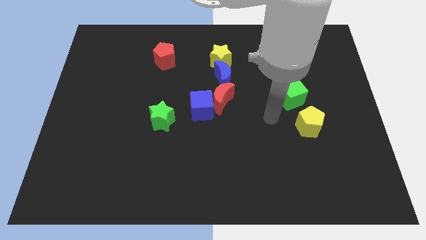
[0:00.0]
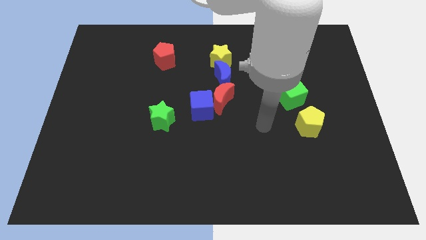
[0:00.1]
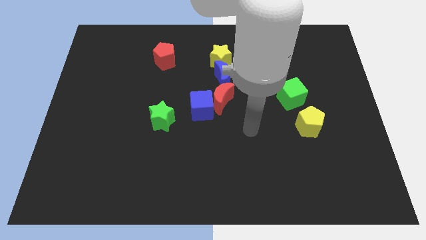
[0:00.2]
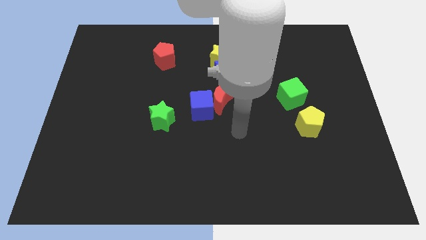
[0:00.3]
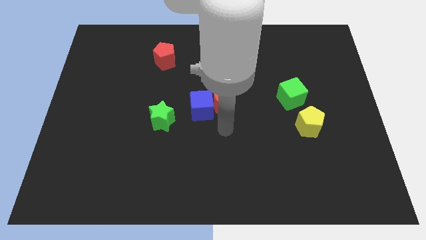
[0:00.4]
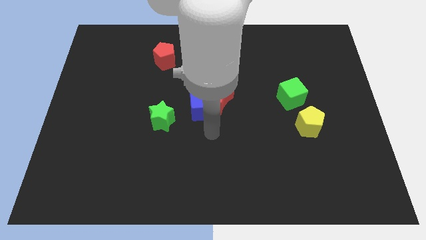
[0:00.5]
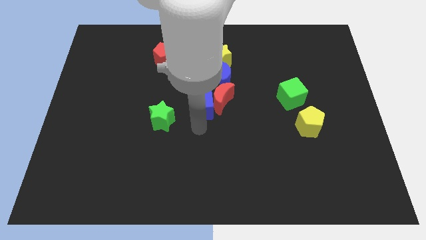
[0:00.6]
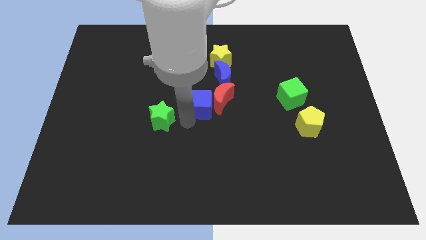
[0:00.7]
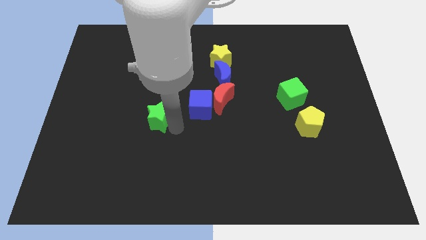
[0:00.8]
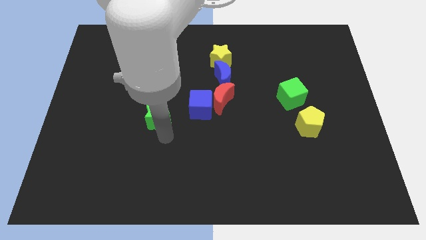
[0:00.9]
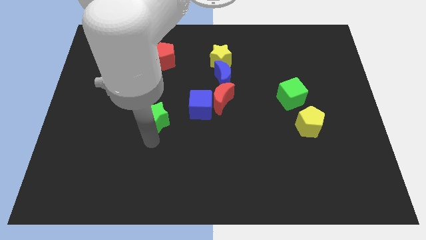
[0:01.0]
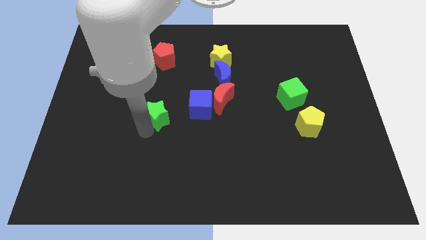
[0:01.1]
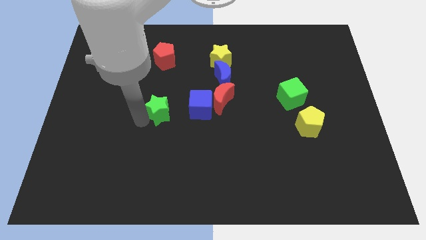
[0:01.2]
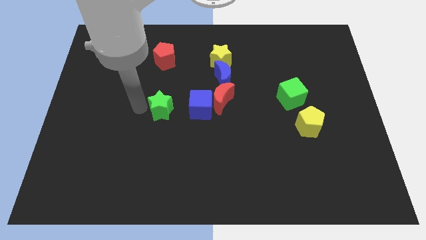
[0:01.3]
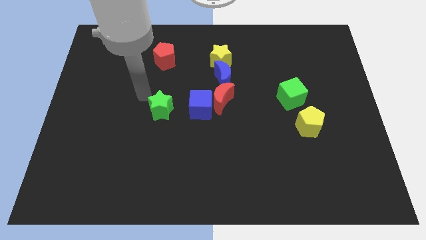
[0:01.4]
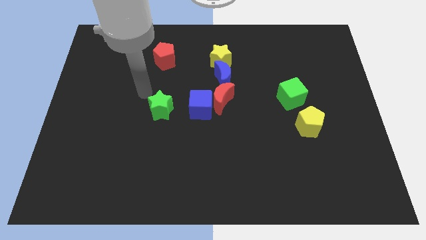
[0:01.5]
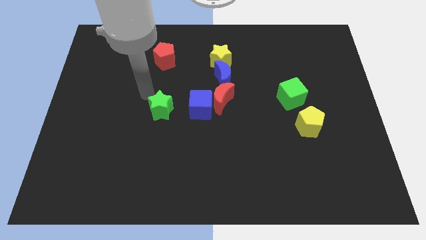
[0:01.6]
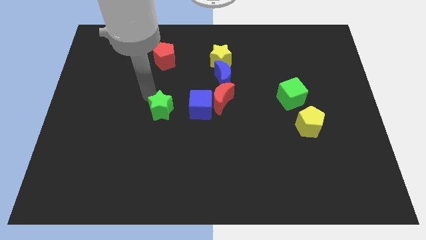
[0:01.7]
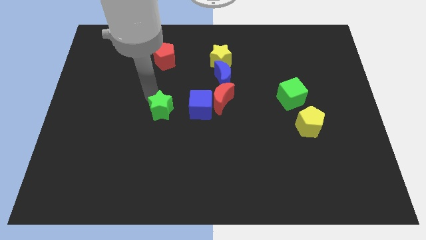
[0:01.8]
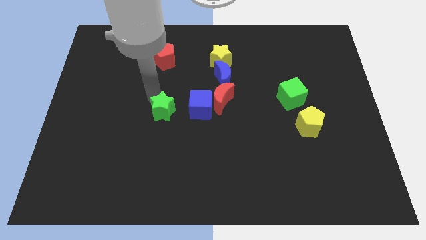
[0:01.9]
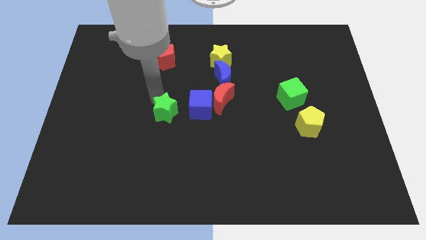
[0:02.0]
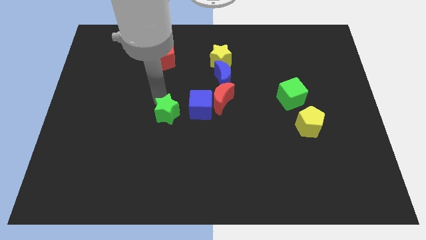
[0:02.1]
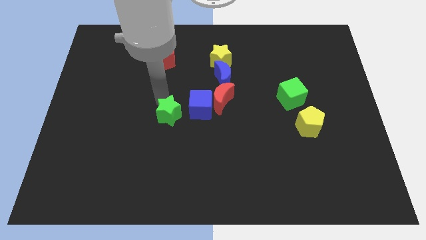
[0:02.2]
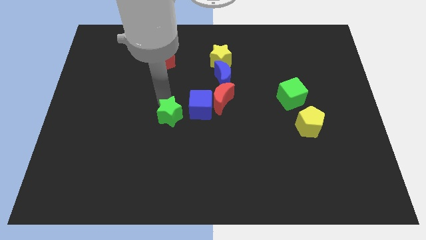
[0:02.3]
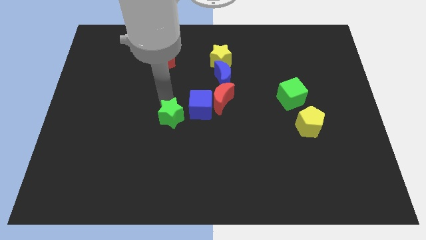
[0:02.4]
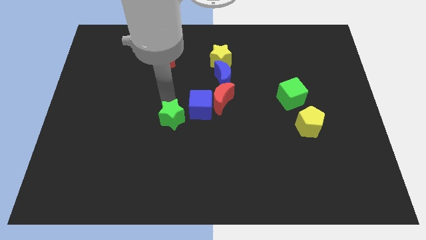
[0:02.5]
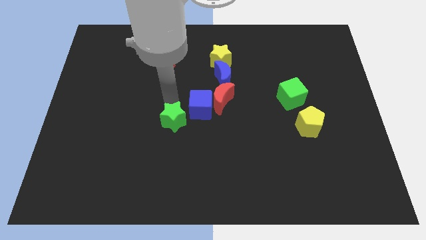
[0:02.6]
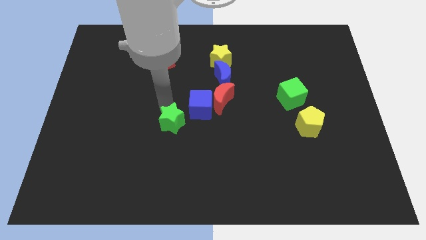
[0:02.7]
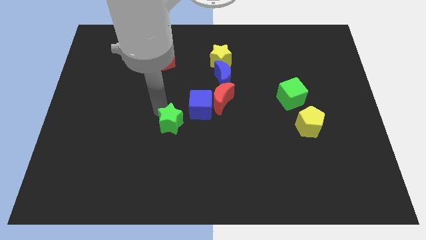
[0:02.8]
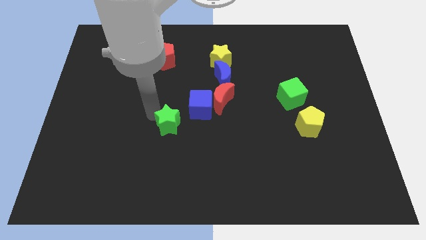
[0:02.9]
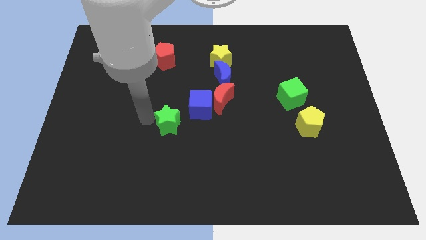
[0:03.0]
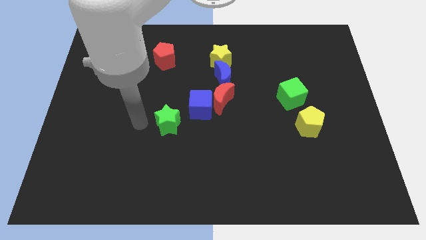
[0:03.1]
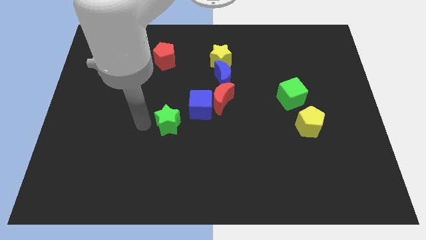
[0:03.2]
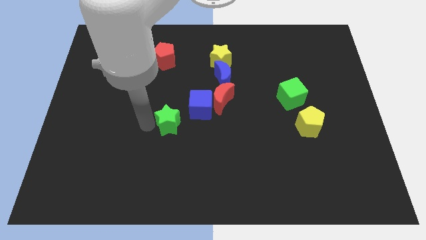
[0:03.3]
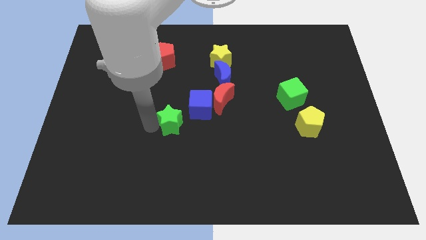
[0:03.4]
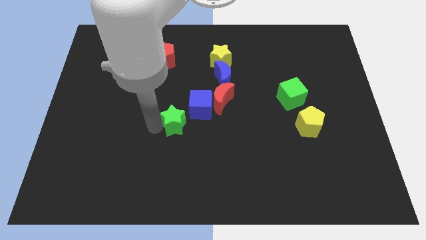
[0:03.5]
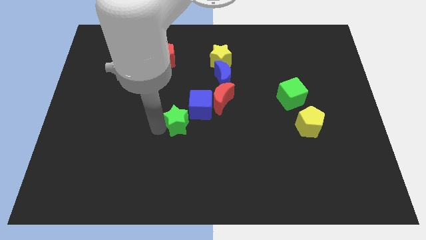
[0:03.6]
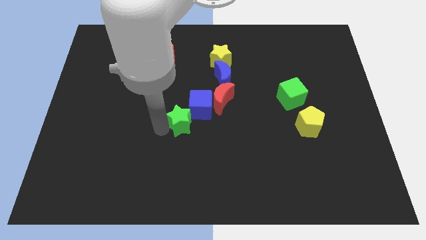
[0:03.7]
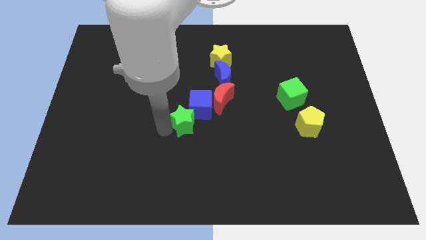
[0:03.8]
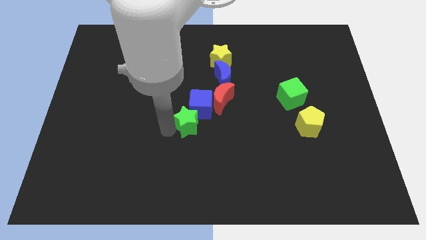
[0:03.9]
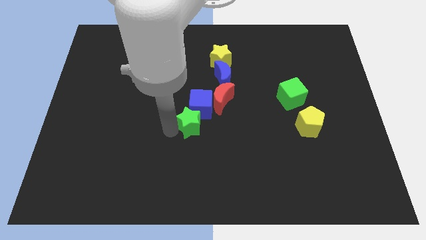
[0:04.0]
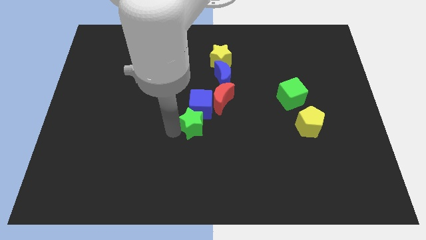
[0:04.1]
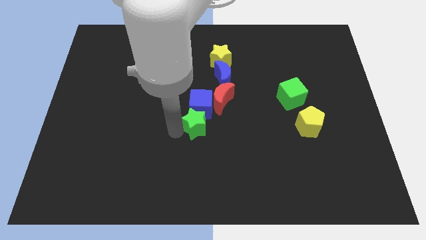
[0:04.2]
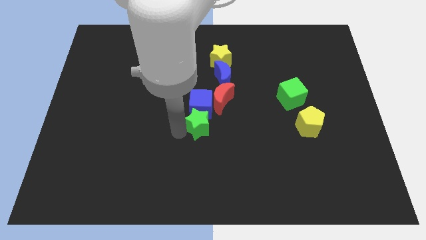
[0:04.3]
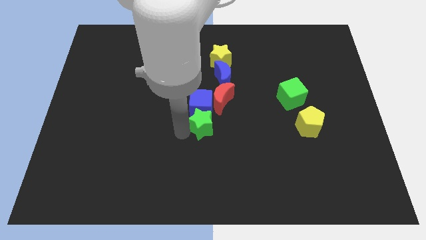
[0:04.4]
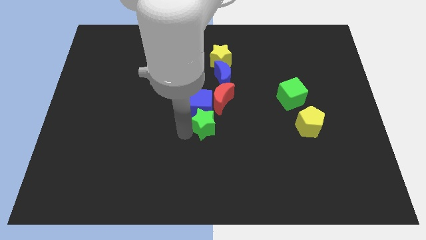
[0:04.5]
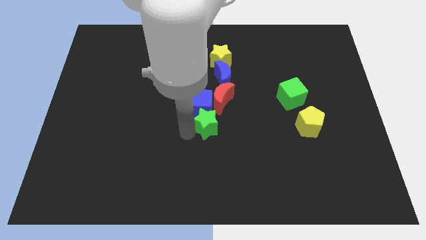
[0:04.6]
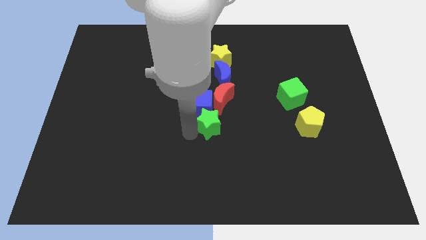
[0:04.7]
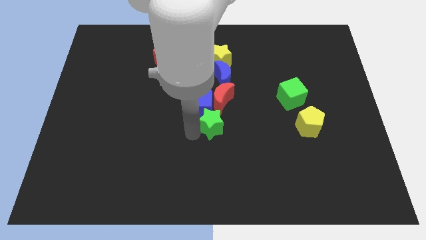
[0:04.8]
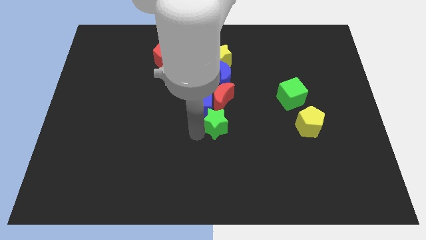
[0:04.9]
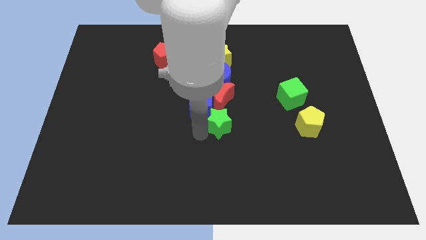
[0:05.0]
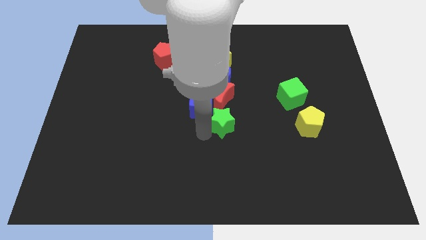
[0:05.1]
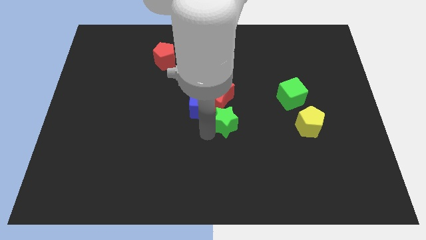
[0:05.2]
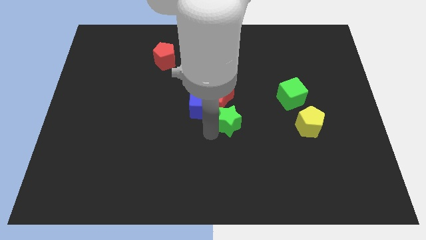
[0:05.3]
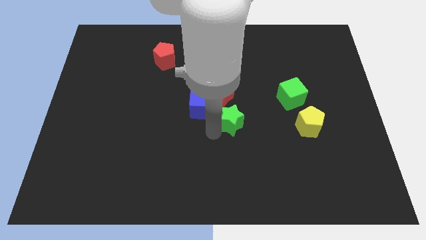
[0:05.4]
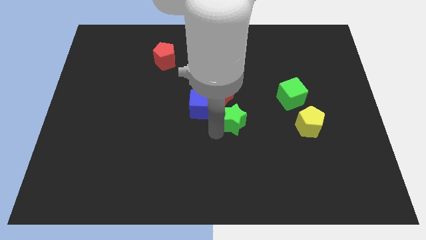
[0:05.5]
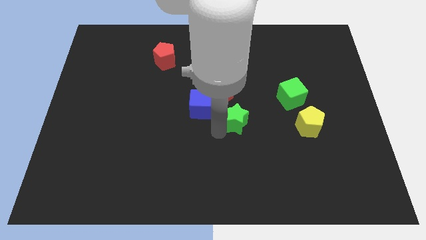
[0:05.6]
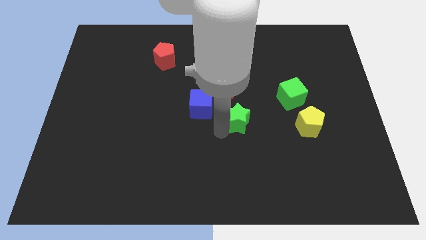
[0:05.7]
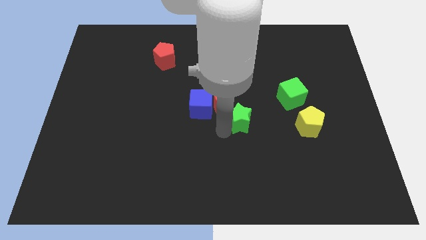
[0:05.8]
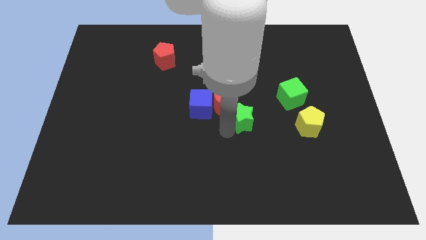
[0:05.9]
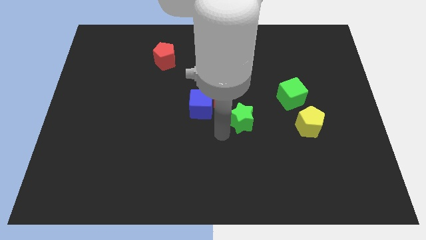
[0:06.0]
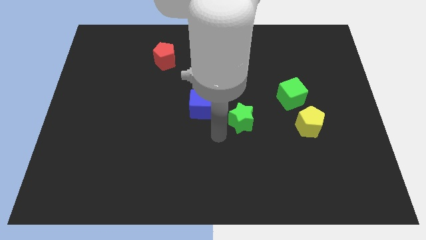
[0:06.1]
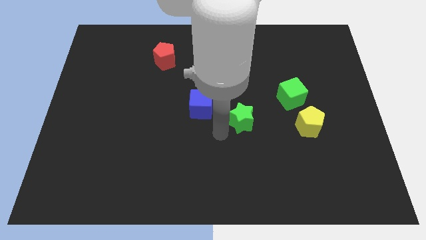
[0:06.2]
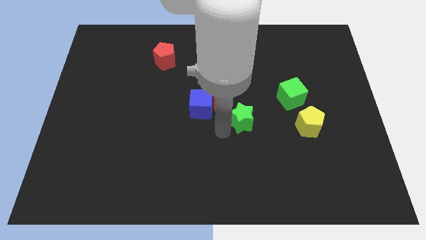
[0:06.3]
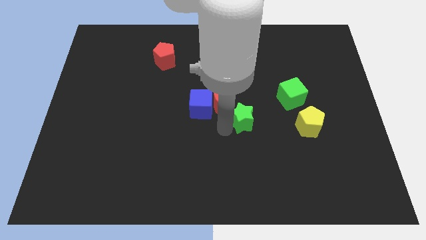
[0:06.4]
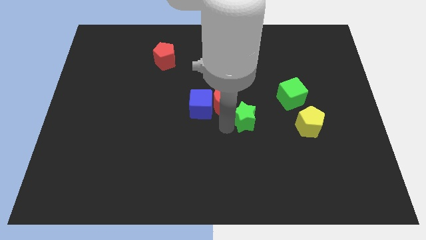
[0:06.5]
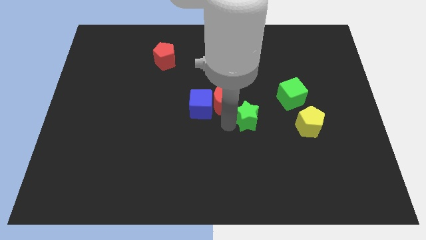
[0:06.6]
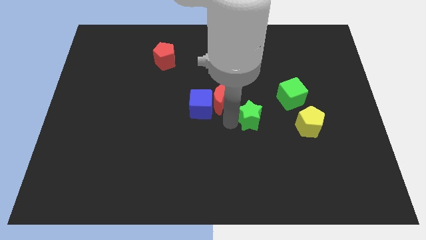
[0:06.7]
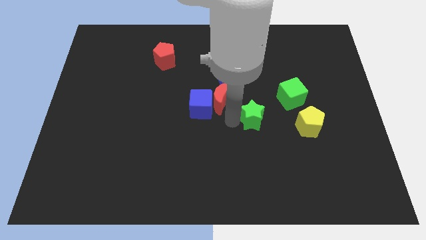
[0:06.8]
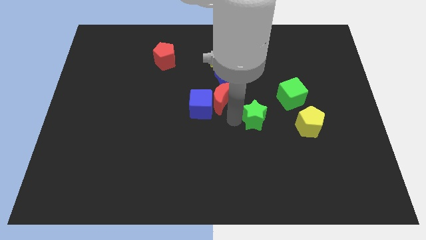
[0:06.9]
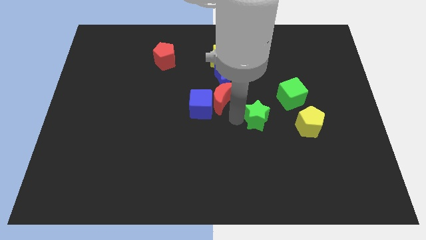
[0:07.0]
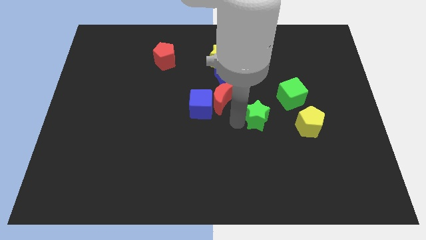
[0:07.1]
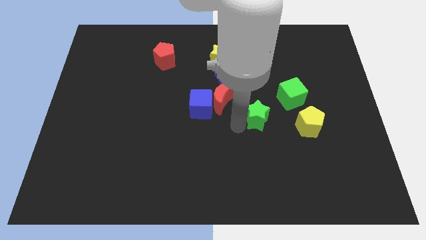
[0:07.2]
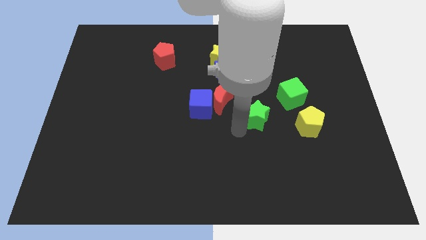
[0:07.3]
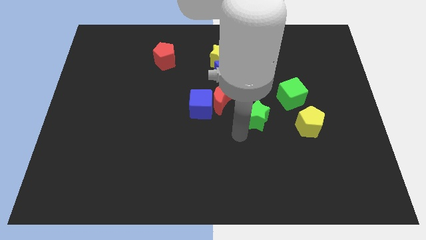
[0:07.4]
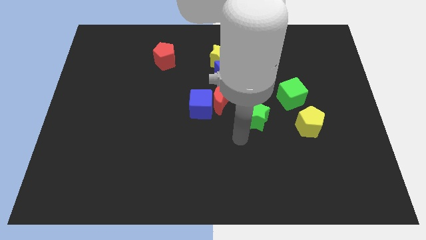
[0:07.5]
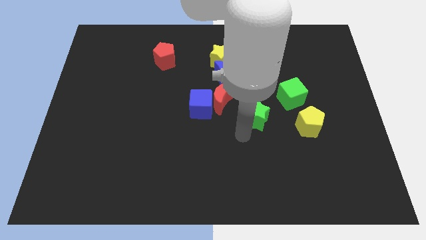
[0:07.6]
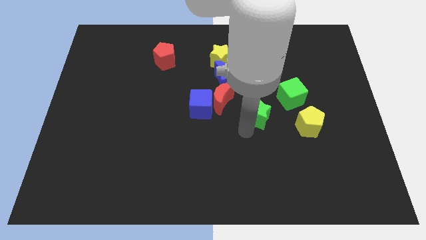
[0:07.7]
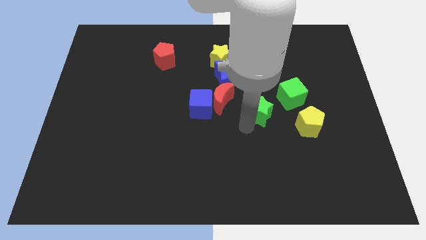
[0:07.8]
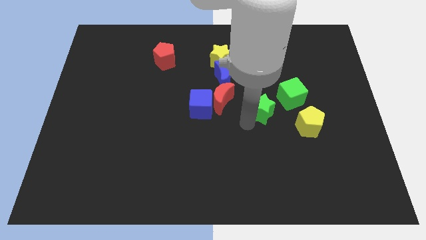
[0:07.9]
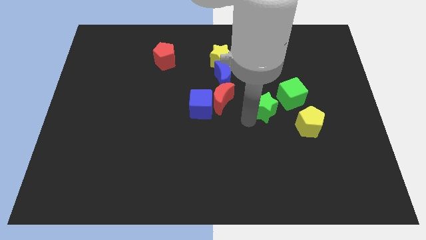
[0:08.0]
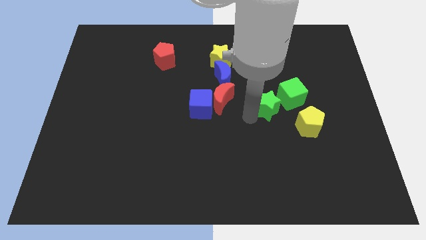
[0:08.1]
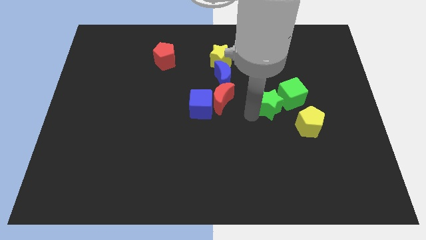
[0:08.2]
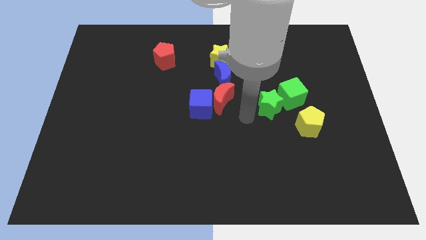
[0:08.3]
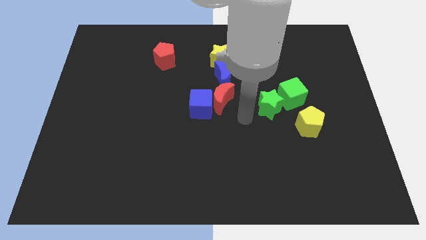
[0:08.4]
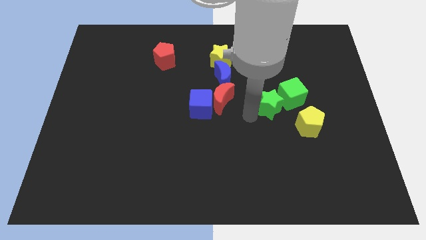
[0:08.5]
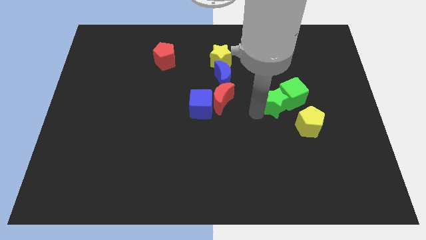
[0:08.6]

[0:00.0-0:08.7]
put the green star towards the green cube
